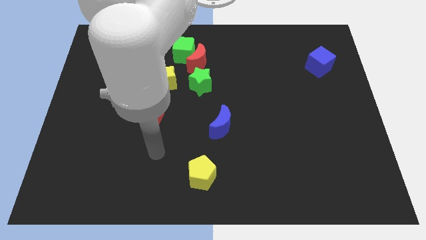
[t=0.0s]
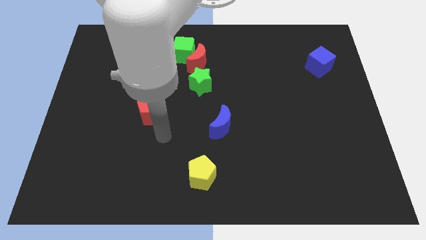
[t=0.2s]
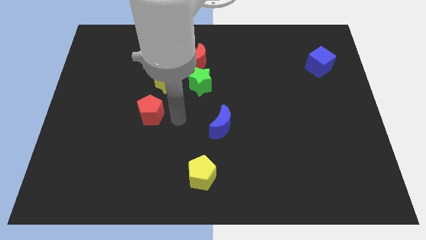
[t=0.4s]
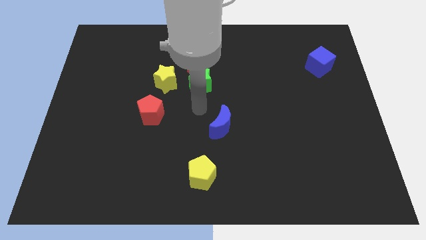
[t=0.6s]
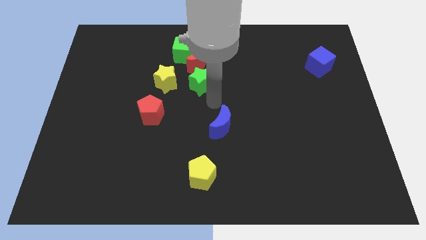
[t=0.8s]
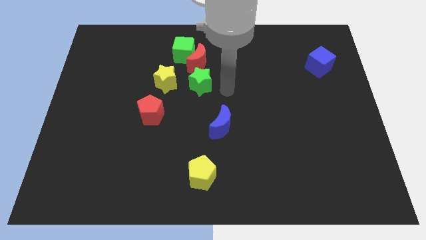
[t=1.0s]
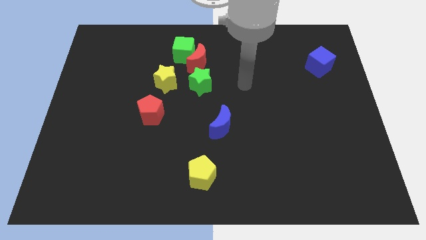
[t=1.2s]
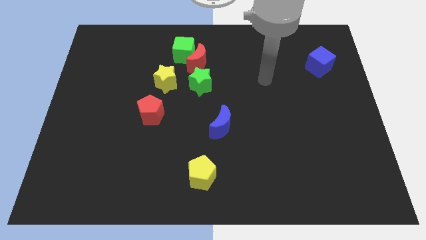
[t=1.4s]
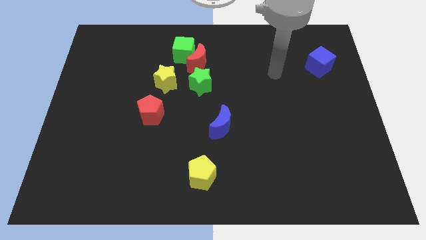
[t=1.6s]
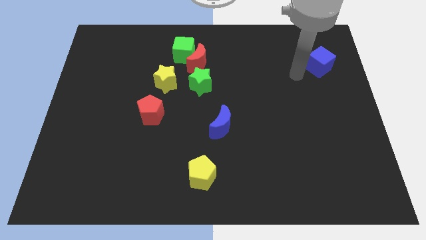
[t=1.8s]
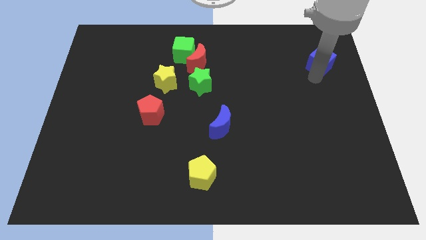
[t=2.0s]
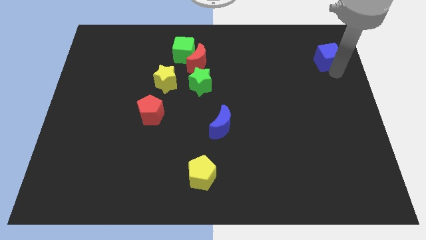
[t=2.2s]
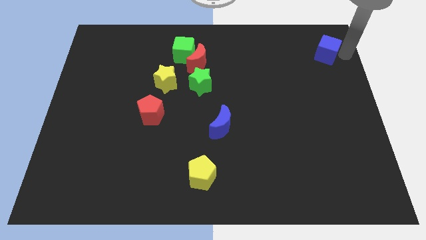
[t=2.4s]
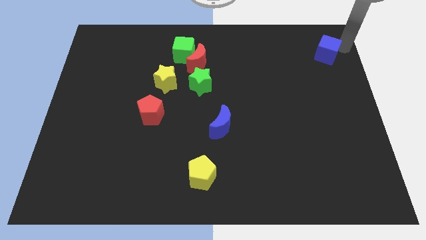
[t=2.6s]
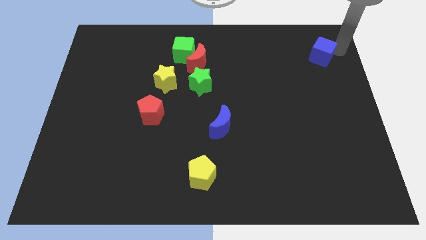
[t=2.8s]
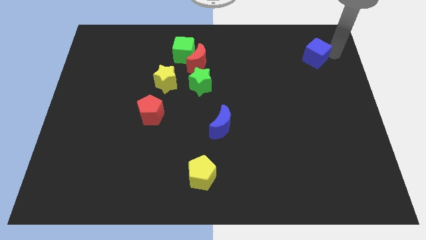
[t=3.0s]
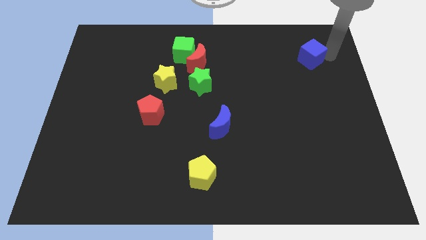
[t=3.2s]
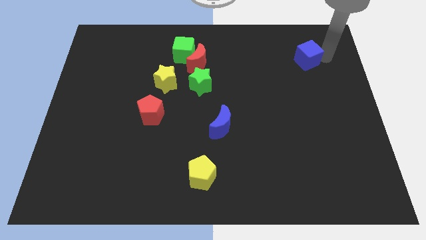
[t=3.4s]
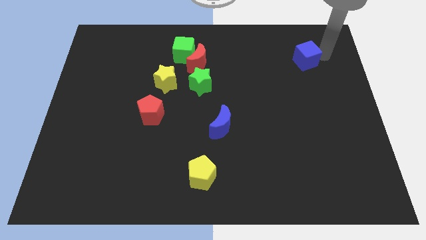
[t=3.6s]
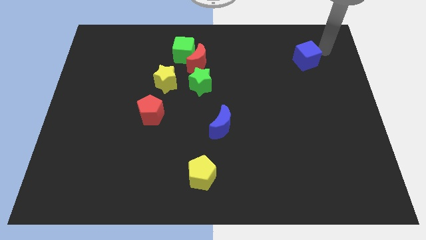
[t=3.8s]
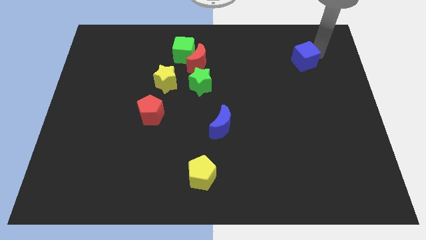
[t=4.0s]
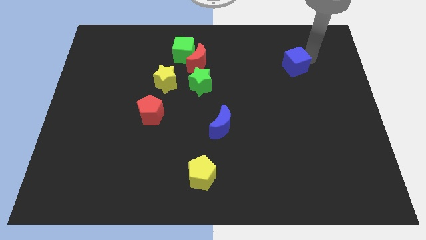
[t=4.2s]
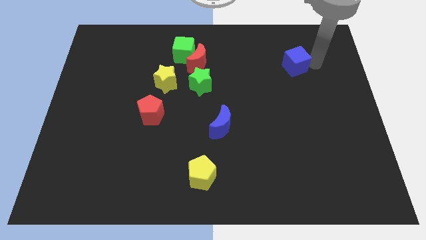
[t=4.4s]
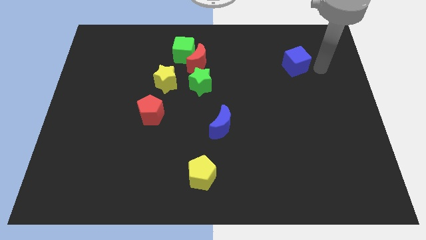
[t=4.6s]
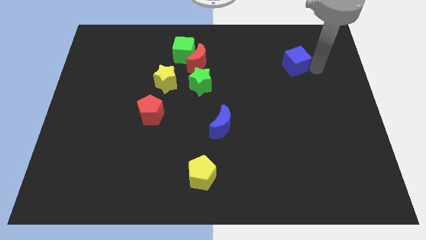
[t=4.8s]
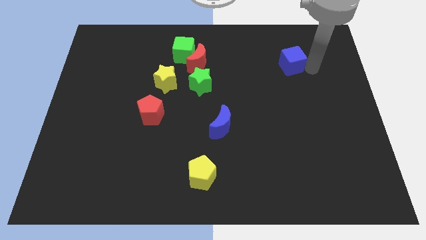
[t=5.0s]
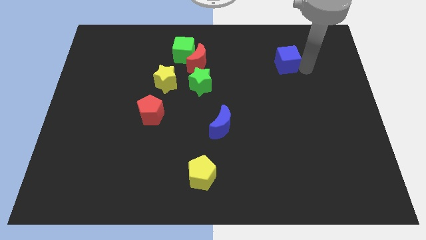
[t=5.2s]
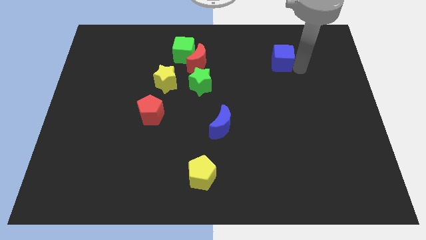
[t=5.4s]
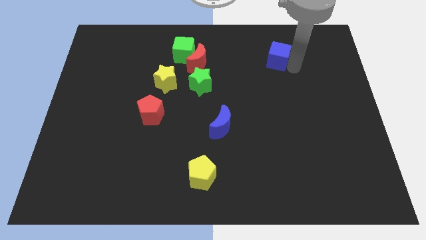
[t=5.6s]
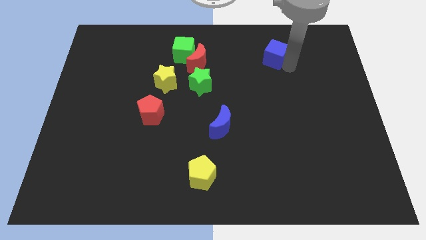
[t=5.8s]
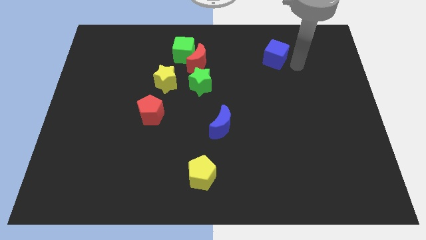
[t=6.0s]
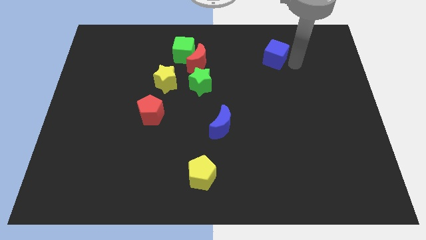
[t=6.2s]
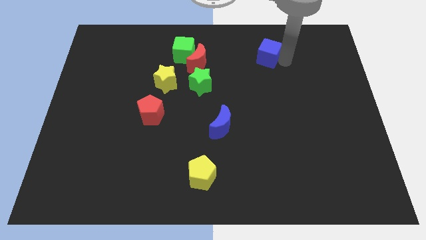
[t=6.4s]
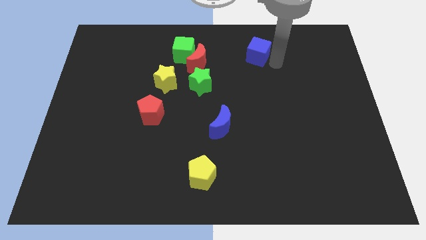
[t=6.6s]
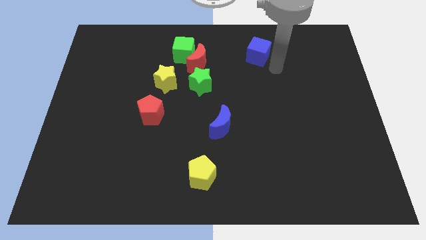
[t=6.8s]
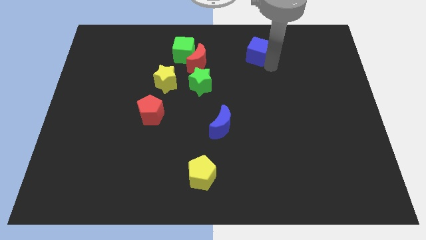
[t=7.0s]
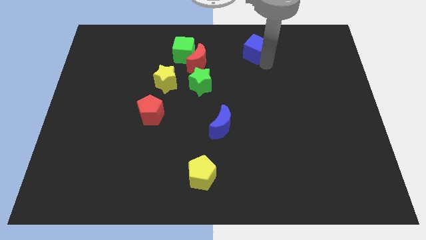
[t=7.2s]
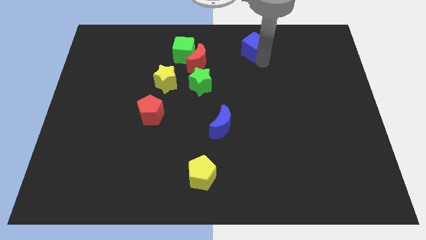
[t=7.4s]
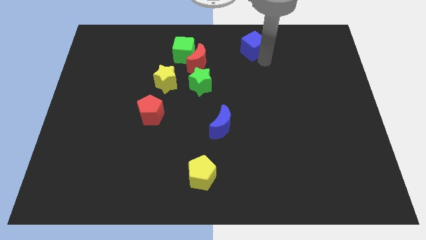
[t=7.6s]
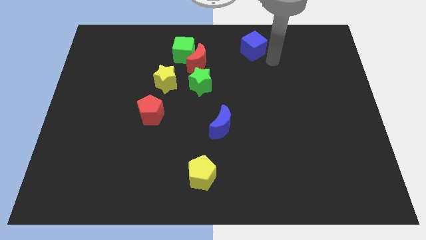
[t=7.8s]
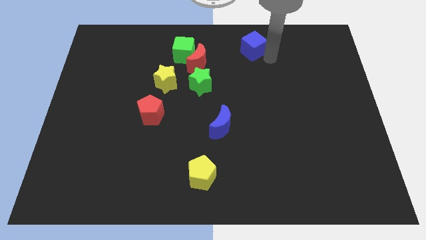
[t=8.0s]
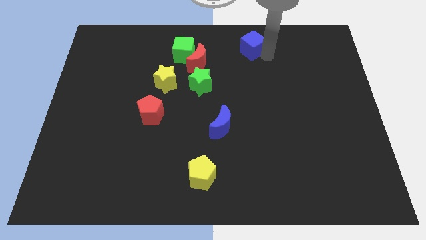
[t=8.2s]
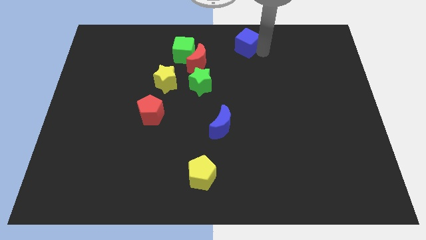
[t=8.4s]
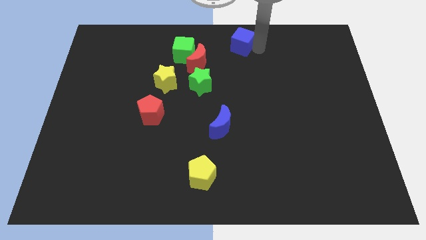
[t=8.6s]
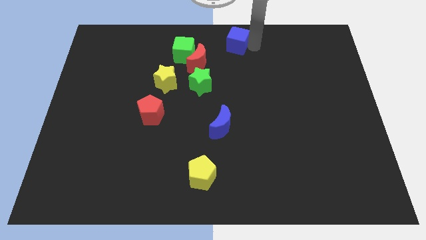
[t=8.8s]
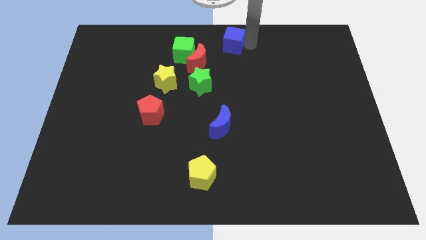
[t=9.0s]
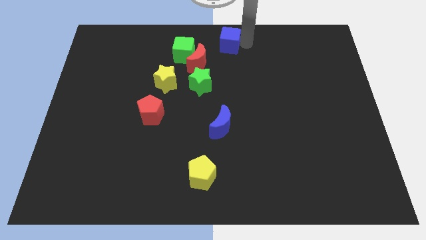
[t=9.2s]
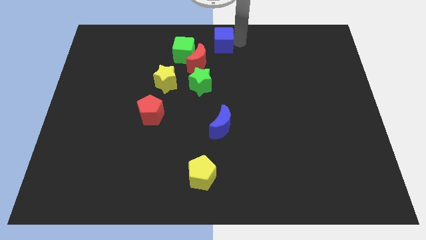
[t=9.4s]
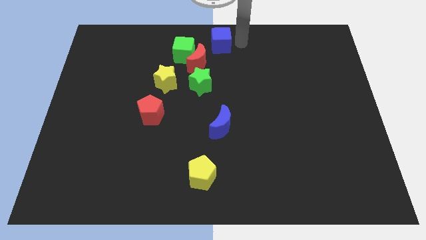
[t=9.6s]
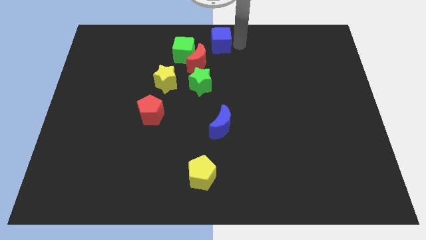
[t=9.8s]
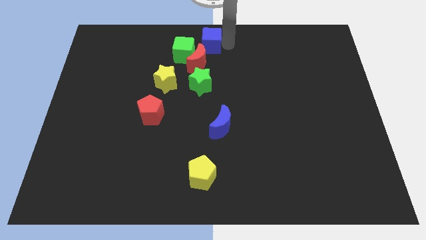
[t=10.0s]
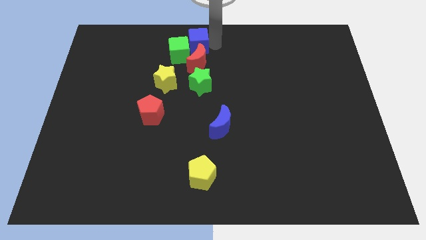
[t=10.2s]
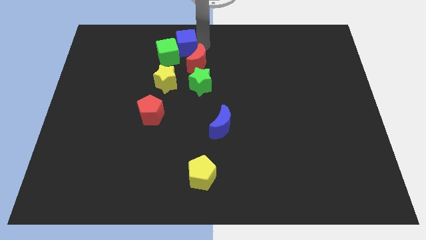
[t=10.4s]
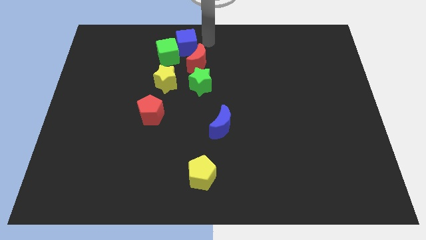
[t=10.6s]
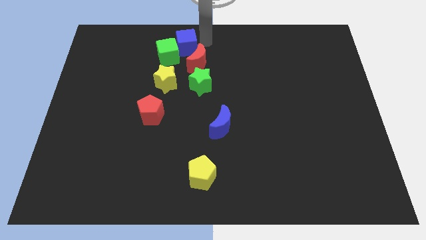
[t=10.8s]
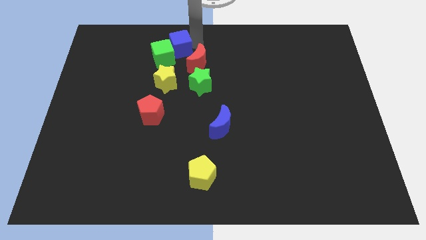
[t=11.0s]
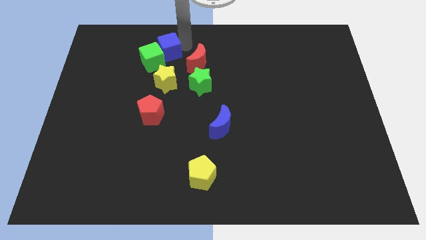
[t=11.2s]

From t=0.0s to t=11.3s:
put the blue cube to the left of the red moon

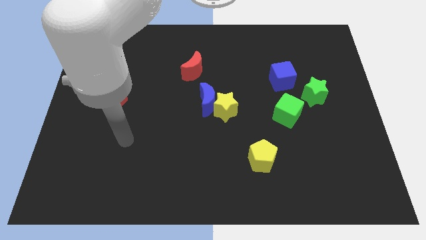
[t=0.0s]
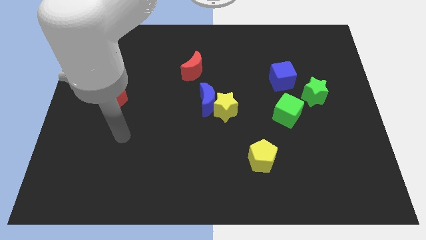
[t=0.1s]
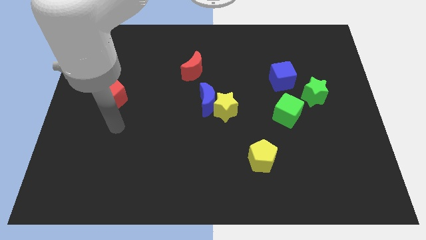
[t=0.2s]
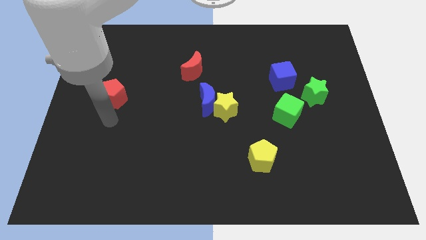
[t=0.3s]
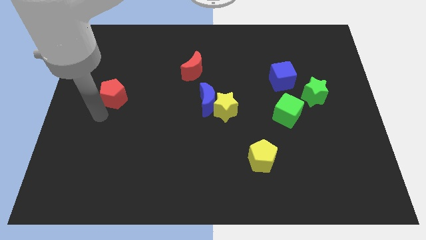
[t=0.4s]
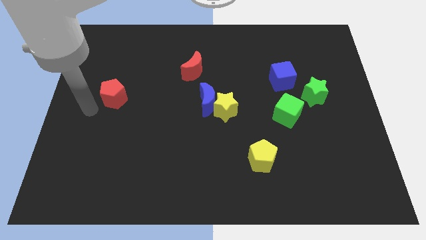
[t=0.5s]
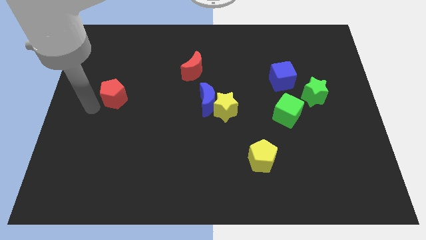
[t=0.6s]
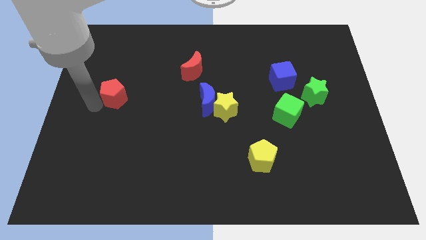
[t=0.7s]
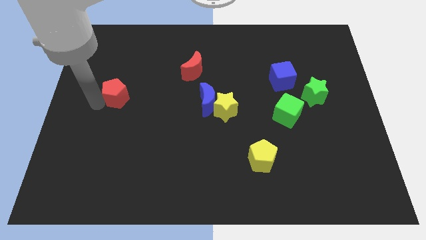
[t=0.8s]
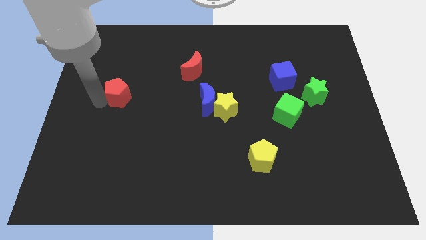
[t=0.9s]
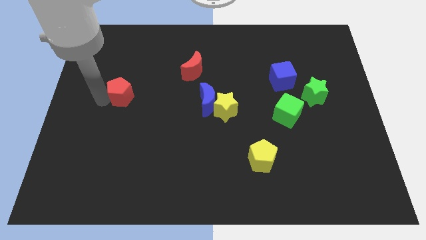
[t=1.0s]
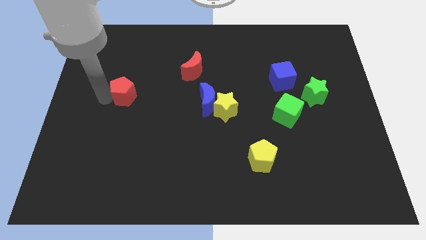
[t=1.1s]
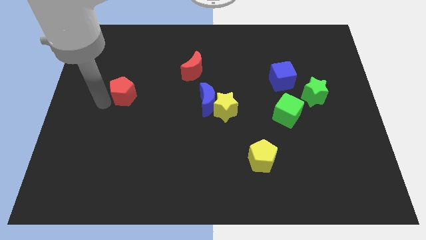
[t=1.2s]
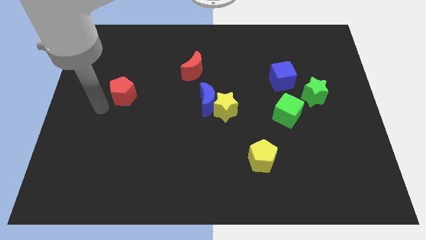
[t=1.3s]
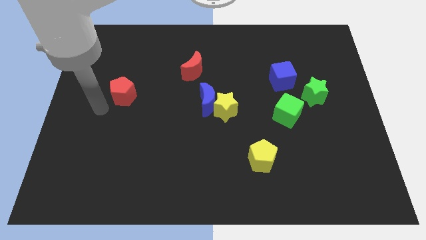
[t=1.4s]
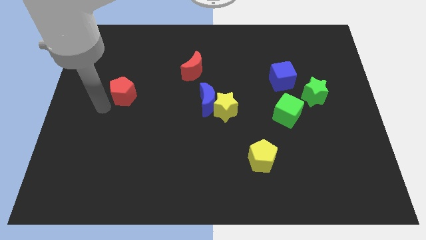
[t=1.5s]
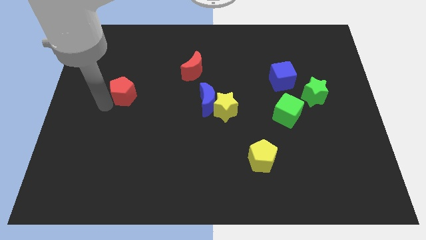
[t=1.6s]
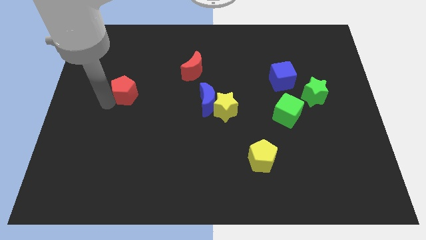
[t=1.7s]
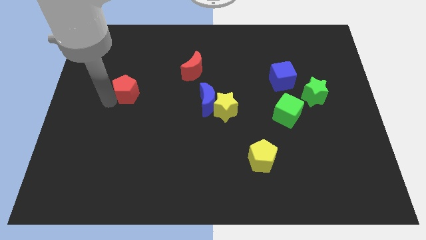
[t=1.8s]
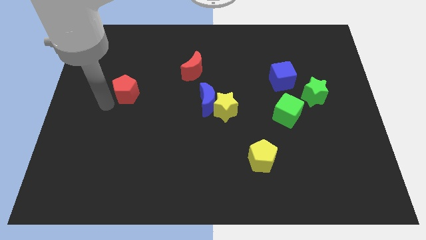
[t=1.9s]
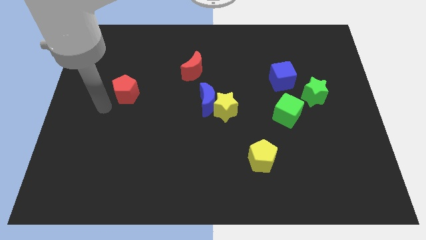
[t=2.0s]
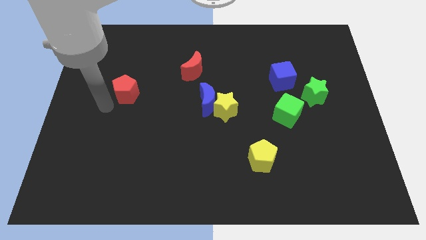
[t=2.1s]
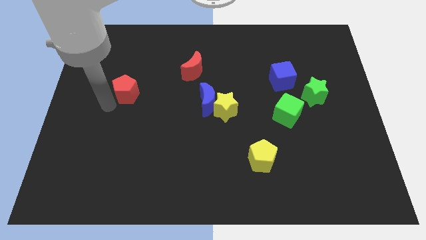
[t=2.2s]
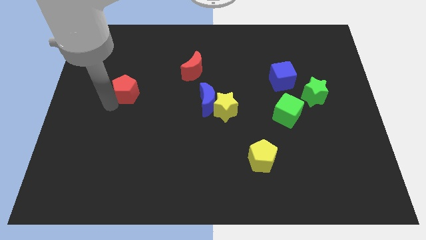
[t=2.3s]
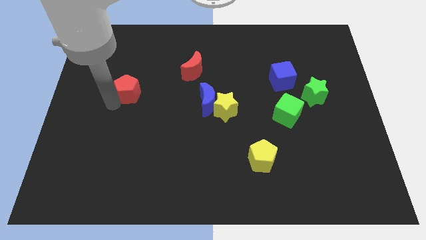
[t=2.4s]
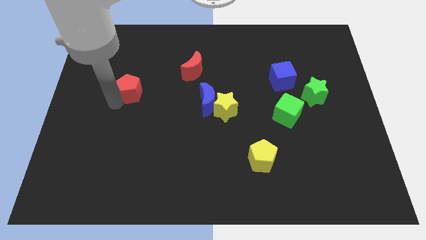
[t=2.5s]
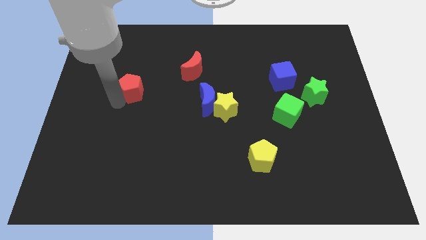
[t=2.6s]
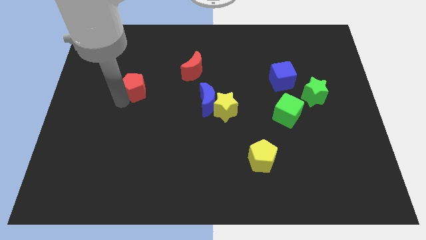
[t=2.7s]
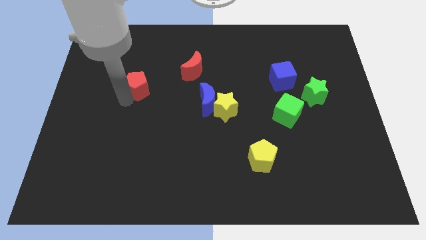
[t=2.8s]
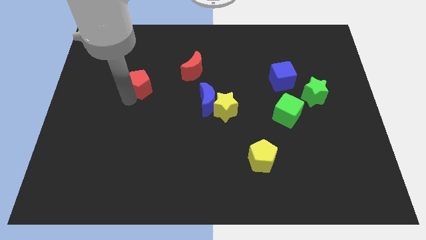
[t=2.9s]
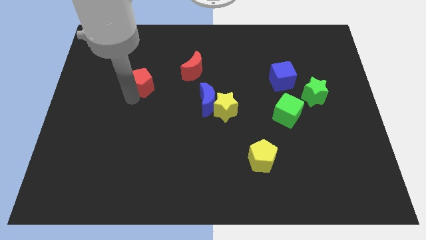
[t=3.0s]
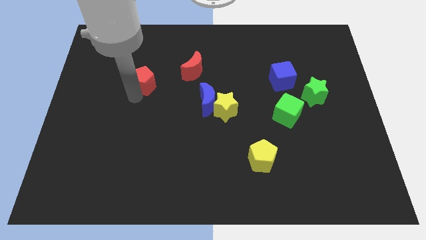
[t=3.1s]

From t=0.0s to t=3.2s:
put the red pentagon to the left side of the red moon
